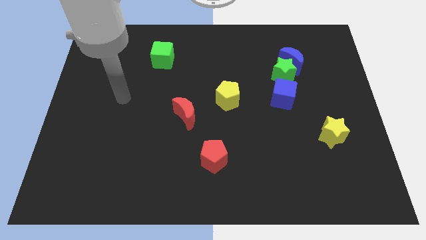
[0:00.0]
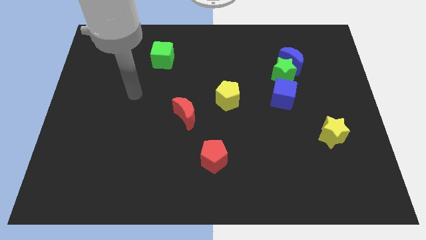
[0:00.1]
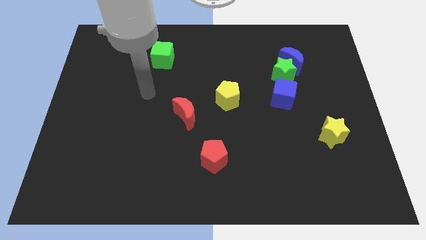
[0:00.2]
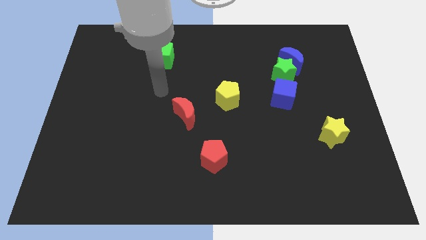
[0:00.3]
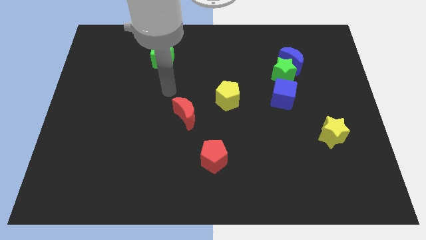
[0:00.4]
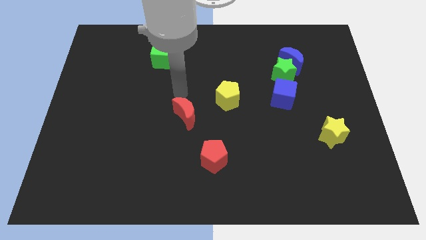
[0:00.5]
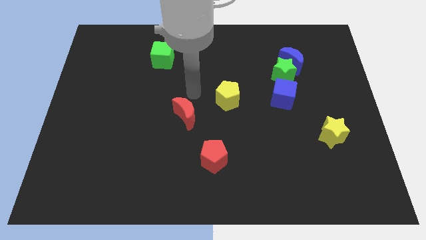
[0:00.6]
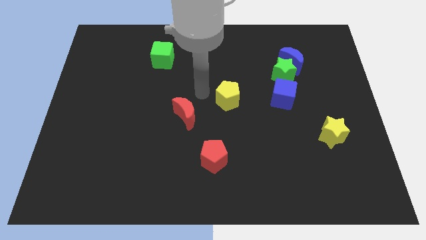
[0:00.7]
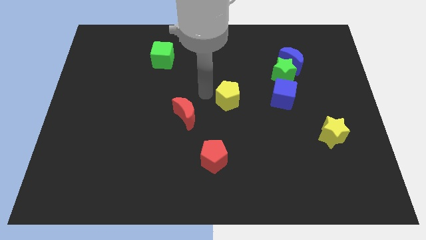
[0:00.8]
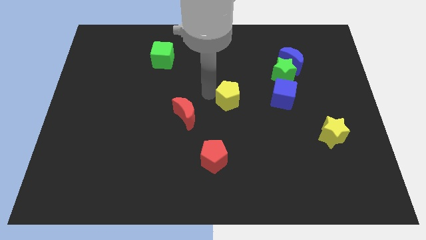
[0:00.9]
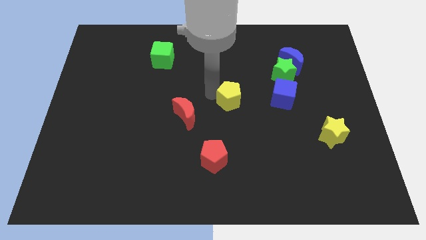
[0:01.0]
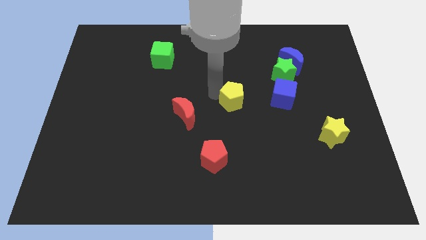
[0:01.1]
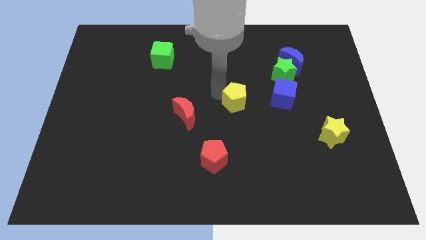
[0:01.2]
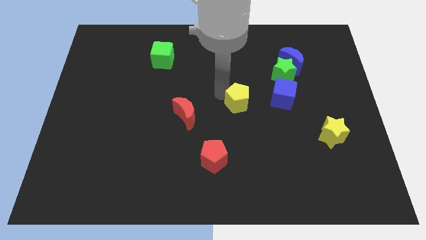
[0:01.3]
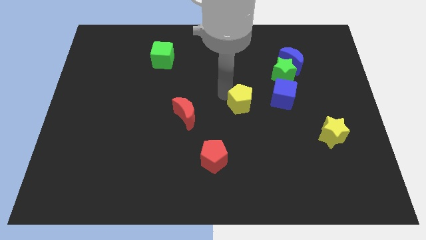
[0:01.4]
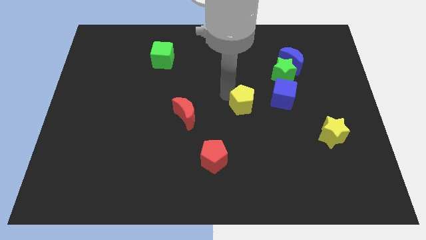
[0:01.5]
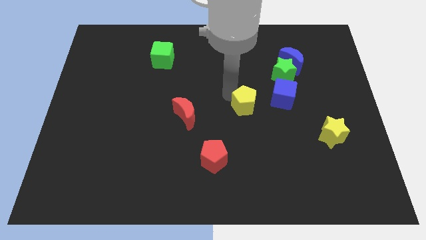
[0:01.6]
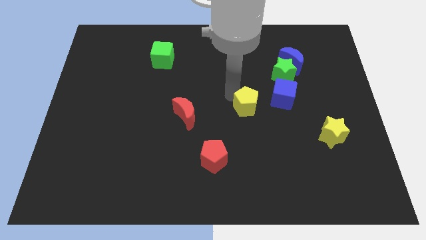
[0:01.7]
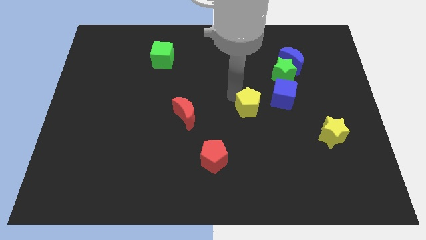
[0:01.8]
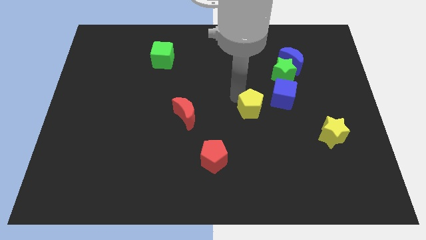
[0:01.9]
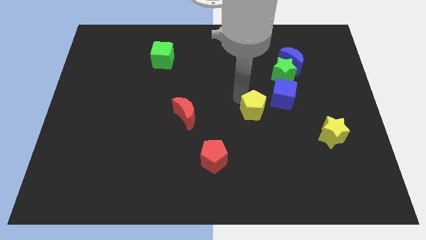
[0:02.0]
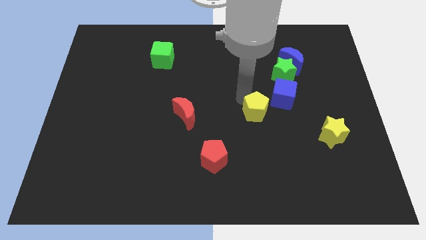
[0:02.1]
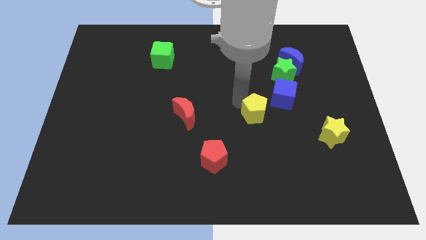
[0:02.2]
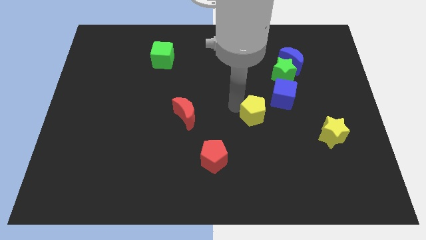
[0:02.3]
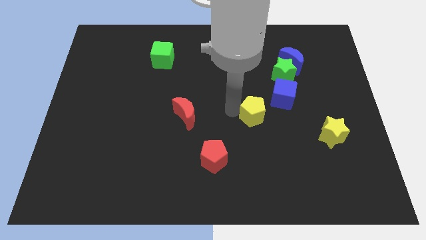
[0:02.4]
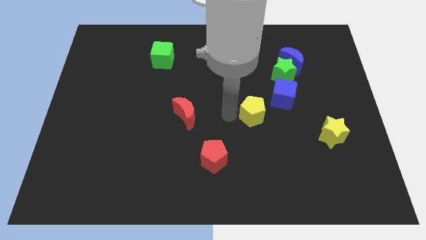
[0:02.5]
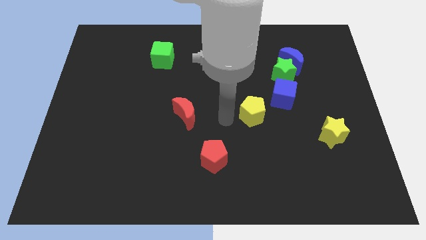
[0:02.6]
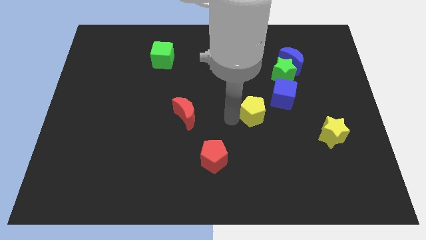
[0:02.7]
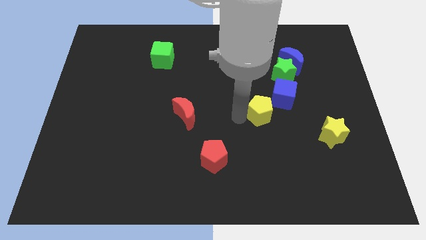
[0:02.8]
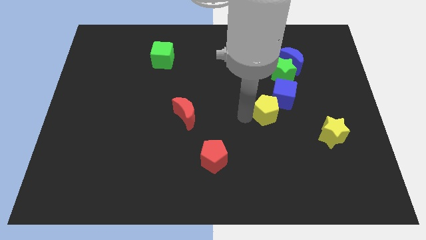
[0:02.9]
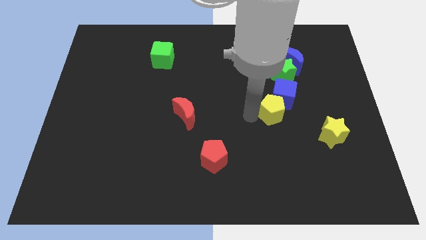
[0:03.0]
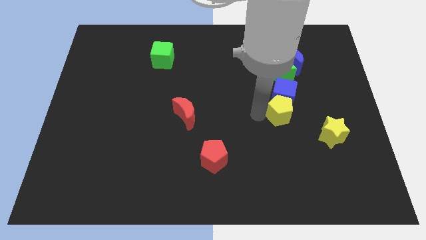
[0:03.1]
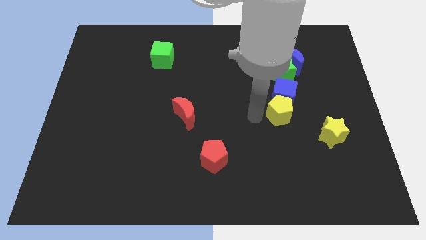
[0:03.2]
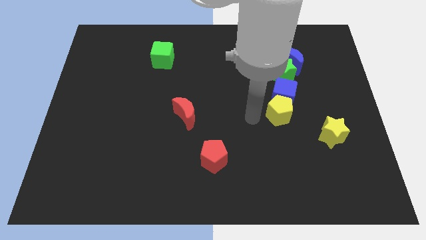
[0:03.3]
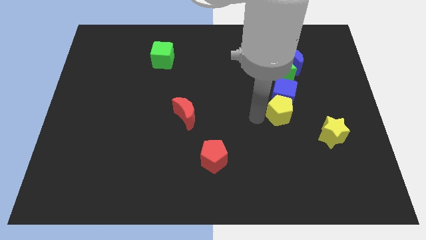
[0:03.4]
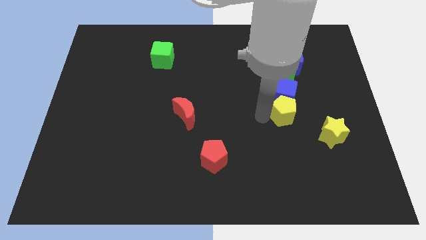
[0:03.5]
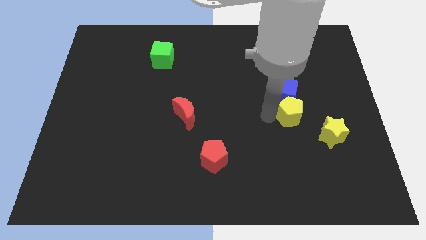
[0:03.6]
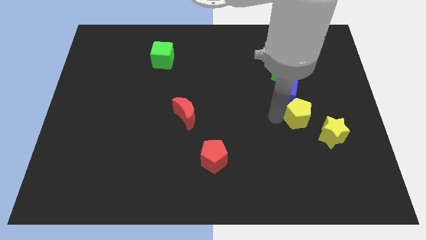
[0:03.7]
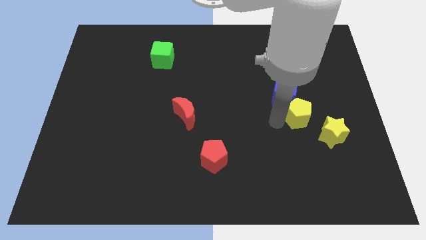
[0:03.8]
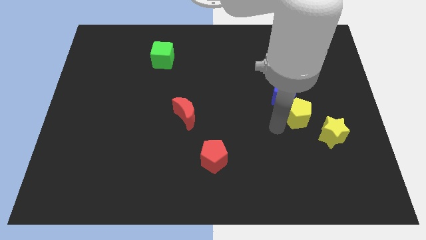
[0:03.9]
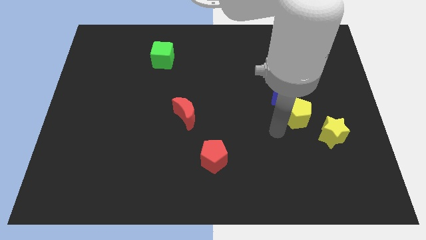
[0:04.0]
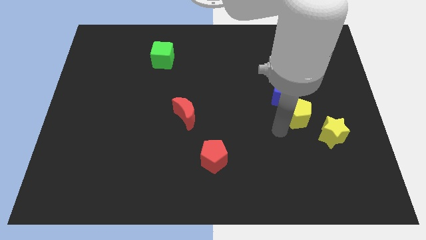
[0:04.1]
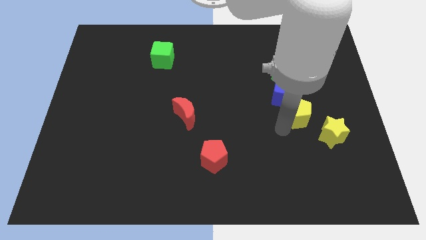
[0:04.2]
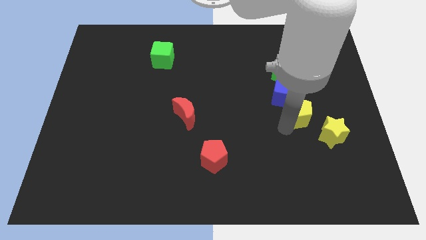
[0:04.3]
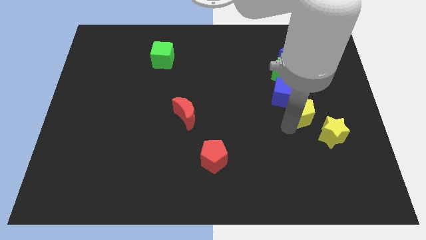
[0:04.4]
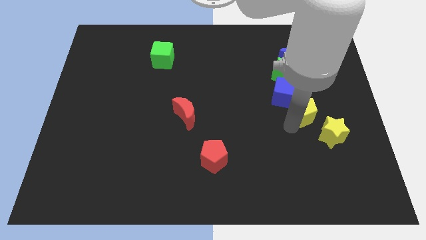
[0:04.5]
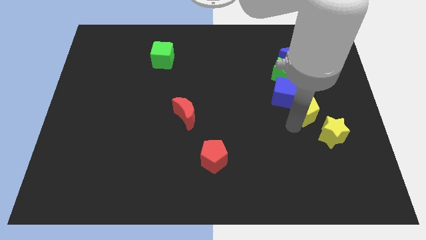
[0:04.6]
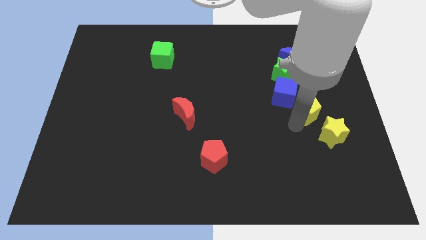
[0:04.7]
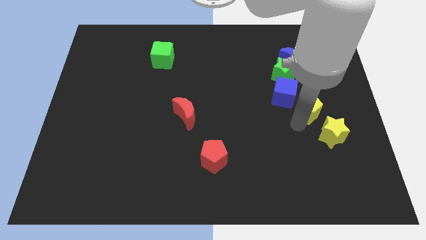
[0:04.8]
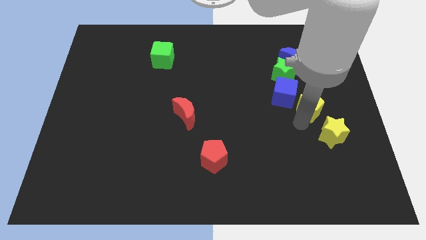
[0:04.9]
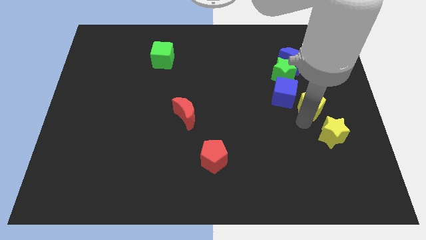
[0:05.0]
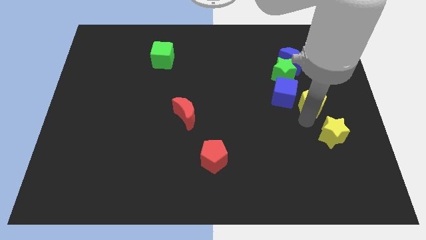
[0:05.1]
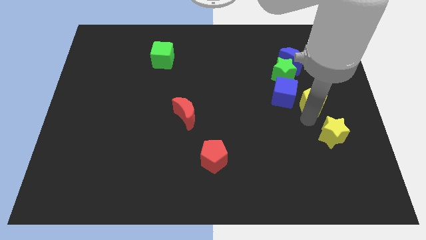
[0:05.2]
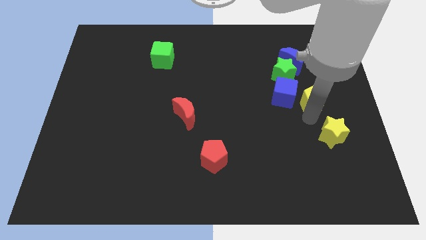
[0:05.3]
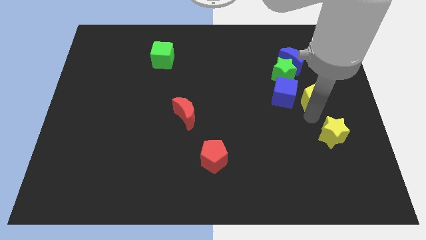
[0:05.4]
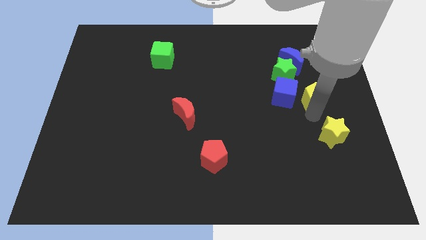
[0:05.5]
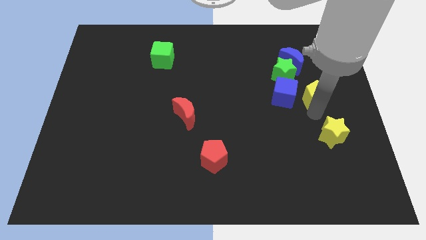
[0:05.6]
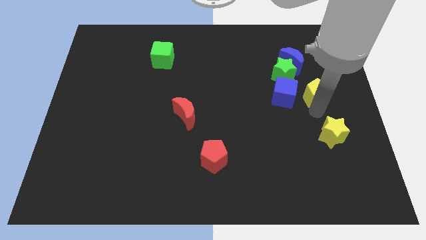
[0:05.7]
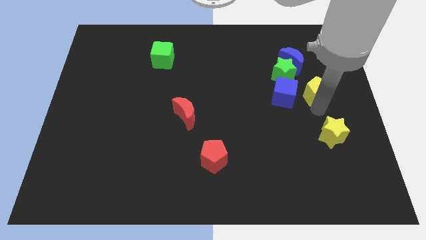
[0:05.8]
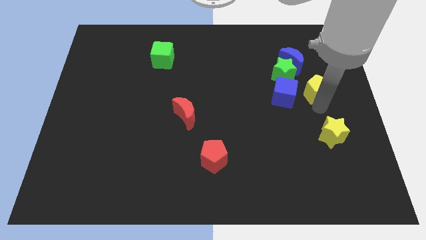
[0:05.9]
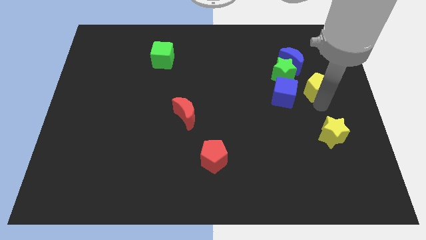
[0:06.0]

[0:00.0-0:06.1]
slide the yellow pentagon to the top right of the blue cube

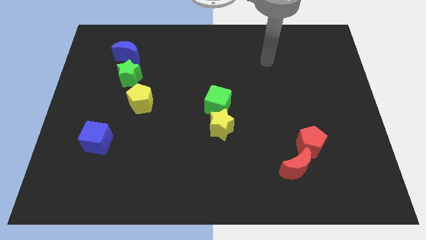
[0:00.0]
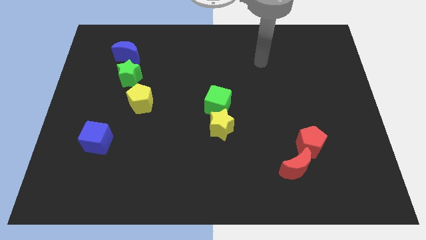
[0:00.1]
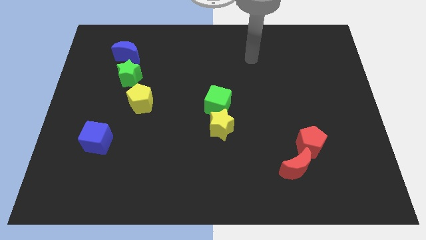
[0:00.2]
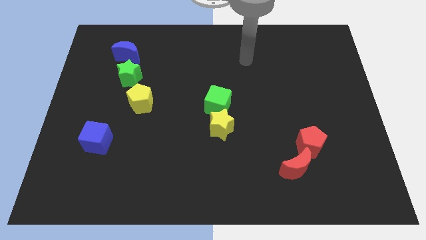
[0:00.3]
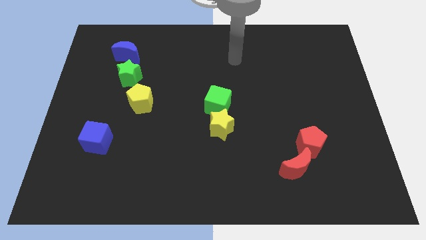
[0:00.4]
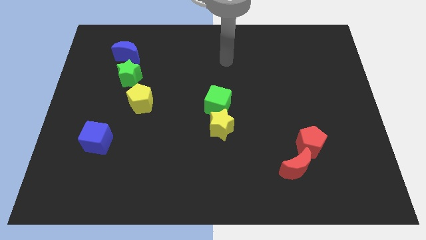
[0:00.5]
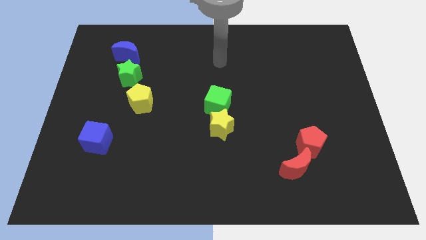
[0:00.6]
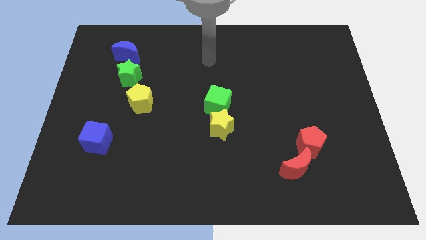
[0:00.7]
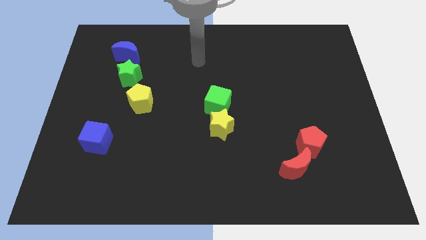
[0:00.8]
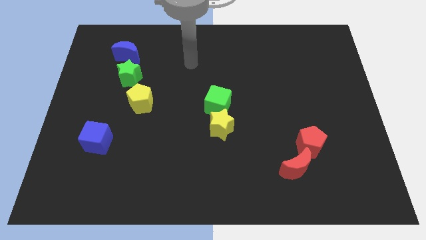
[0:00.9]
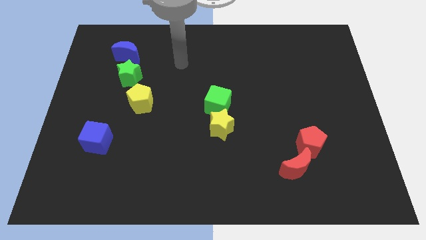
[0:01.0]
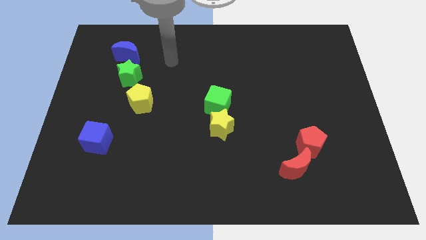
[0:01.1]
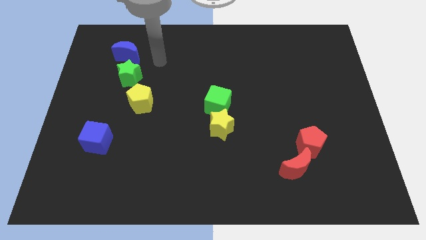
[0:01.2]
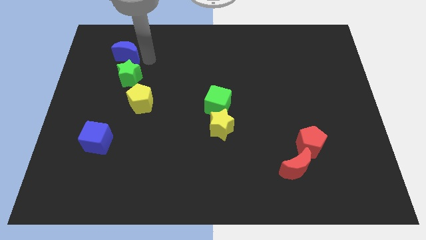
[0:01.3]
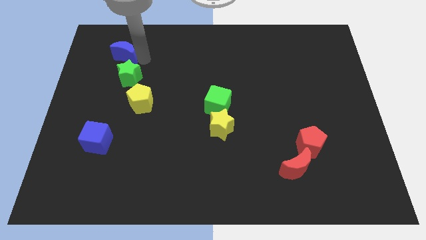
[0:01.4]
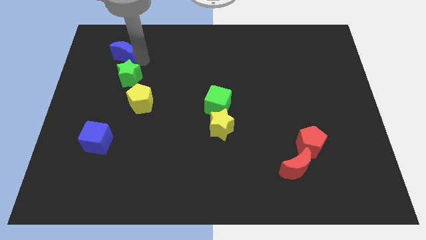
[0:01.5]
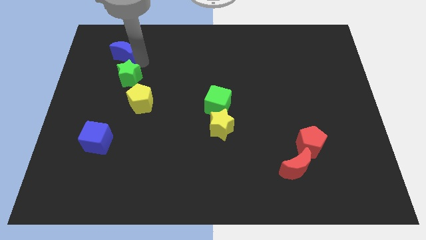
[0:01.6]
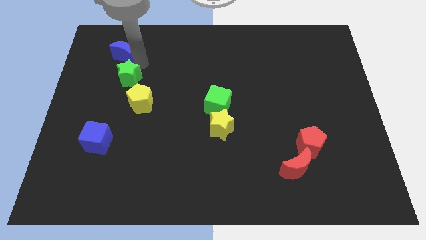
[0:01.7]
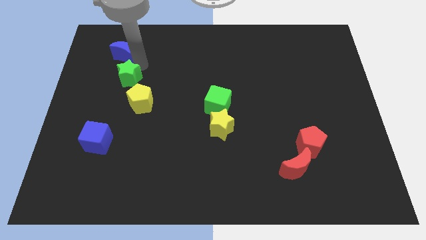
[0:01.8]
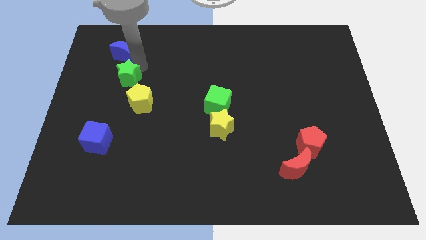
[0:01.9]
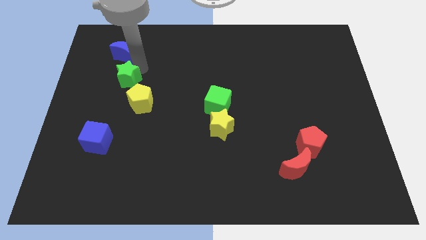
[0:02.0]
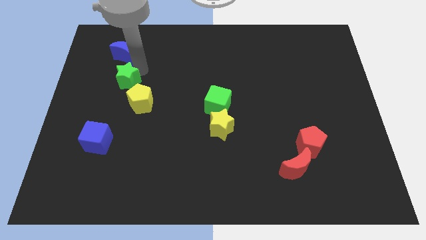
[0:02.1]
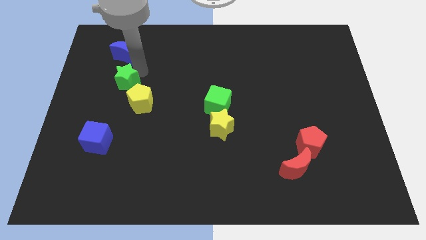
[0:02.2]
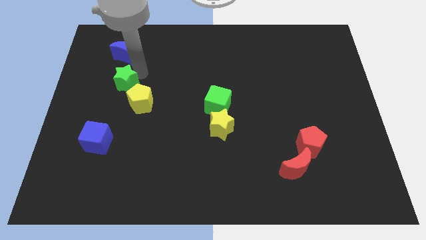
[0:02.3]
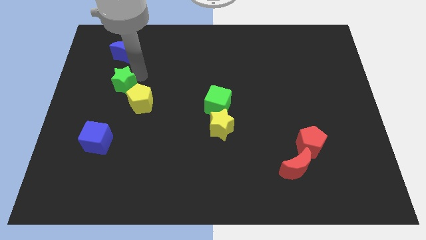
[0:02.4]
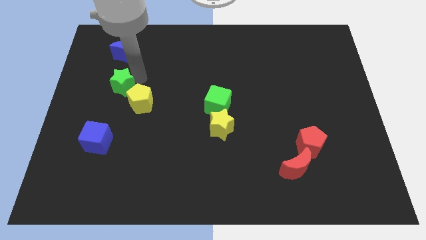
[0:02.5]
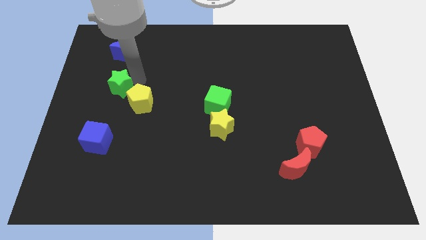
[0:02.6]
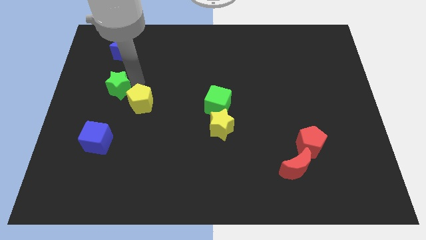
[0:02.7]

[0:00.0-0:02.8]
put the green star to the top of the blue cube
